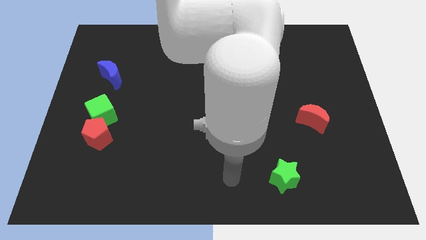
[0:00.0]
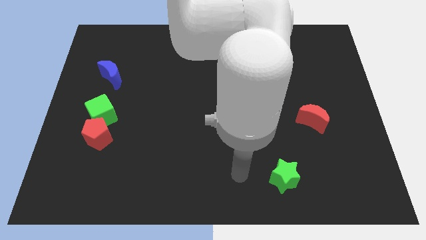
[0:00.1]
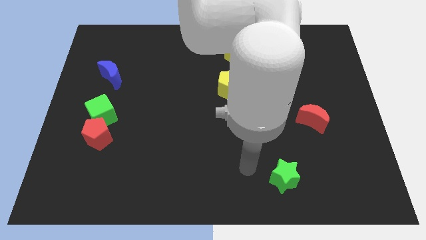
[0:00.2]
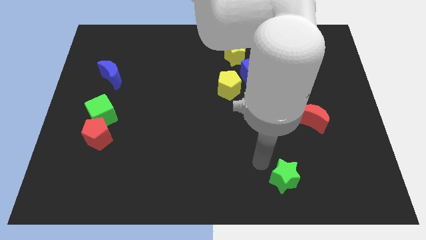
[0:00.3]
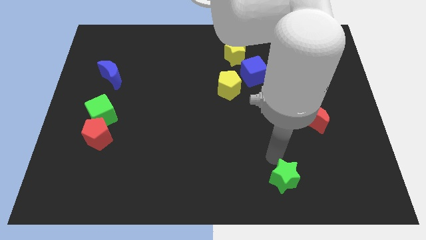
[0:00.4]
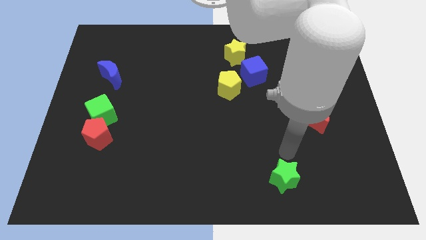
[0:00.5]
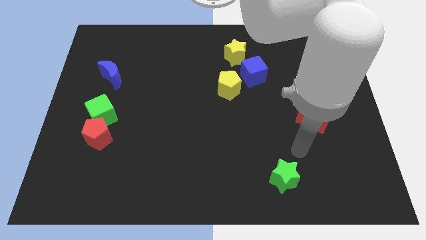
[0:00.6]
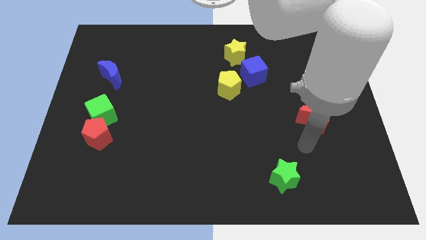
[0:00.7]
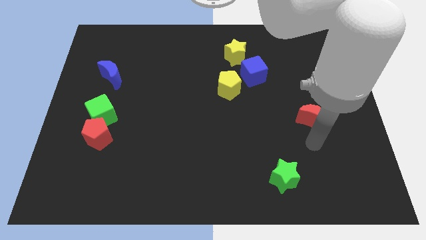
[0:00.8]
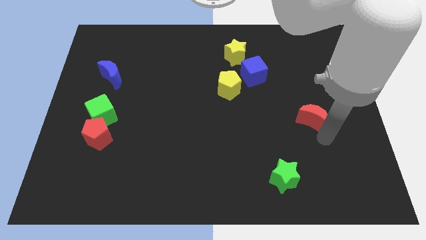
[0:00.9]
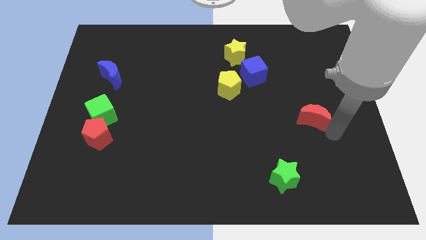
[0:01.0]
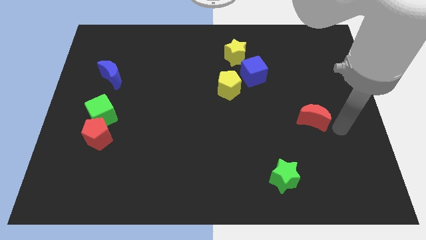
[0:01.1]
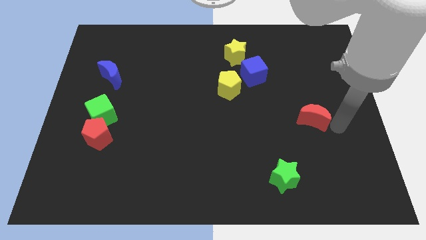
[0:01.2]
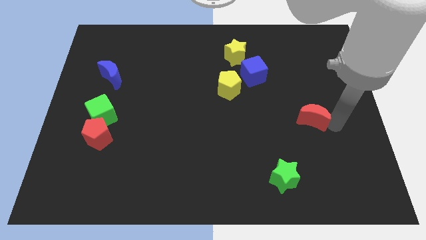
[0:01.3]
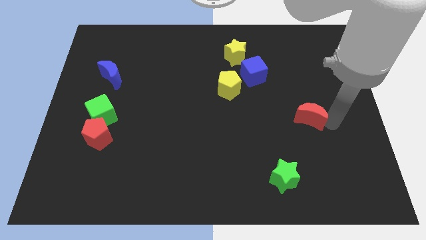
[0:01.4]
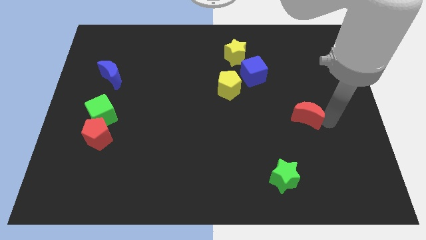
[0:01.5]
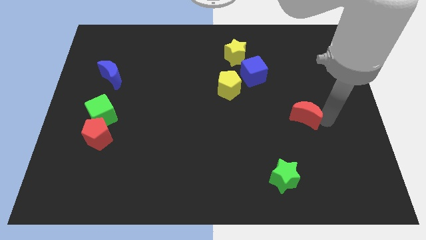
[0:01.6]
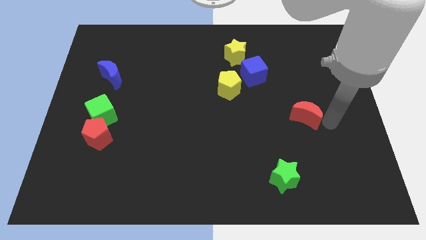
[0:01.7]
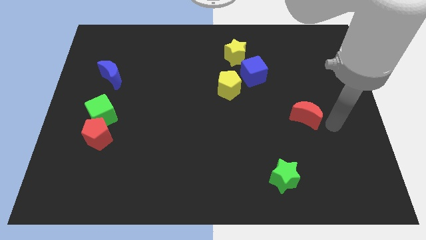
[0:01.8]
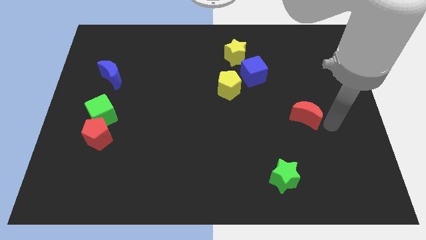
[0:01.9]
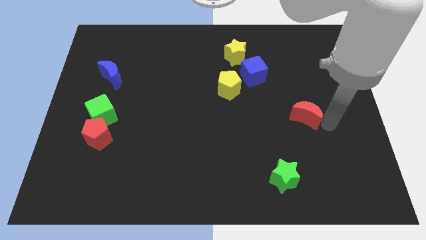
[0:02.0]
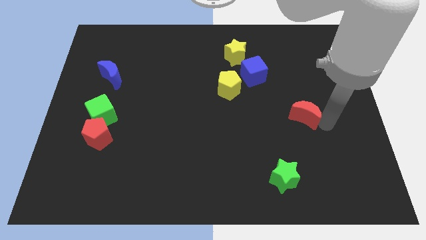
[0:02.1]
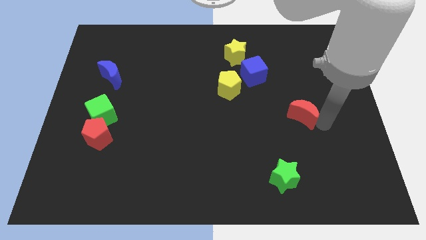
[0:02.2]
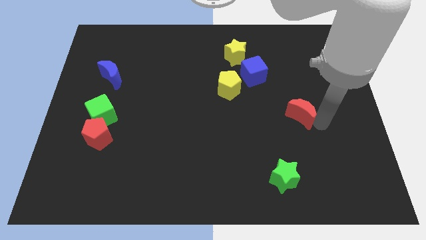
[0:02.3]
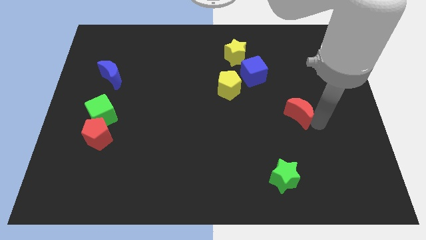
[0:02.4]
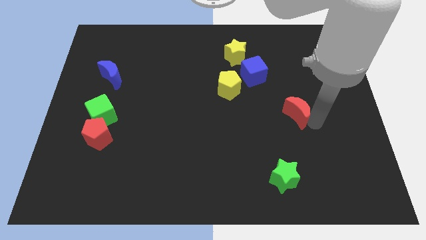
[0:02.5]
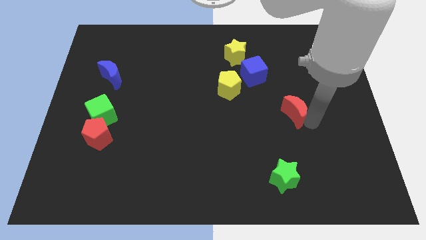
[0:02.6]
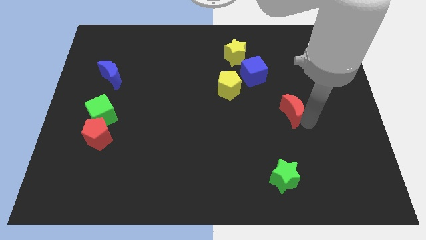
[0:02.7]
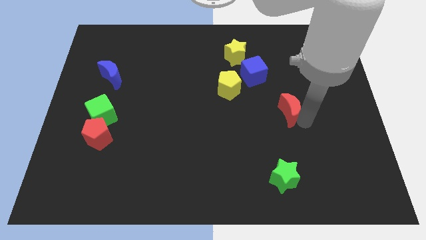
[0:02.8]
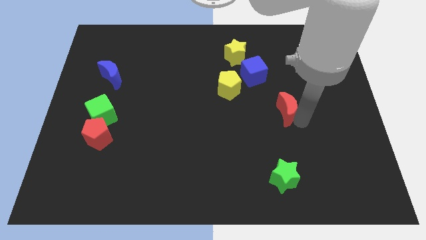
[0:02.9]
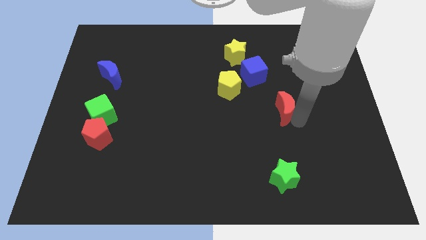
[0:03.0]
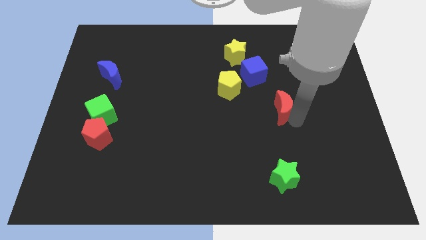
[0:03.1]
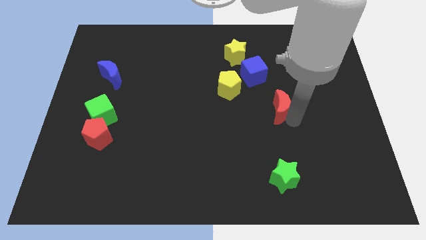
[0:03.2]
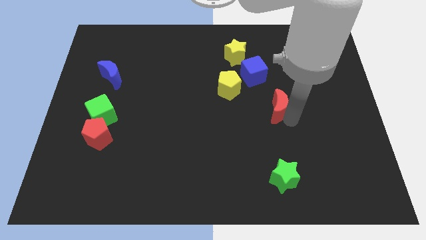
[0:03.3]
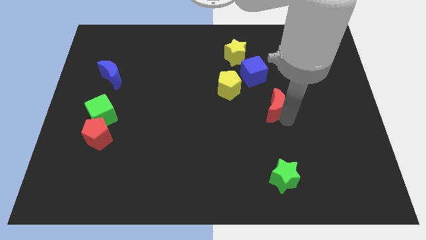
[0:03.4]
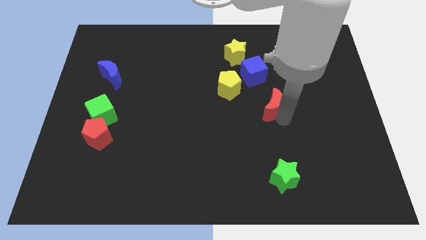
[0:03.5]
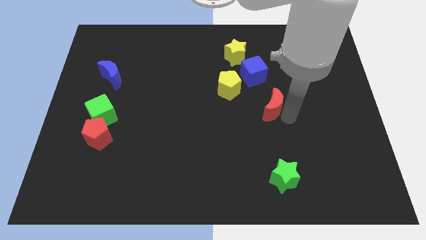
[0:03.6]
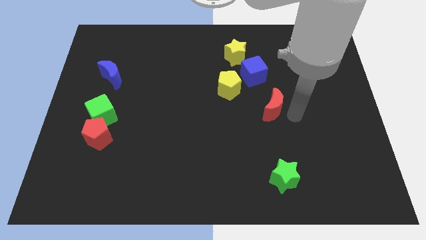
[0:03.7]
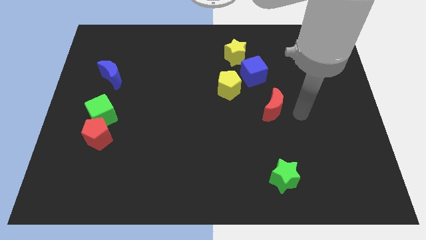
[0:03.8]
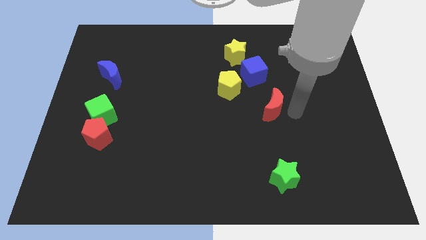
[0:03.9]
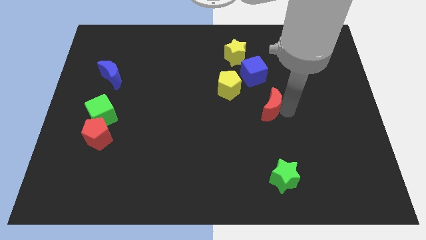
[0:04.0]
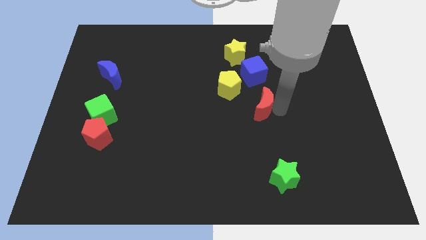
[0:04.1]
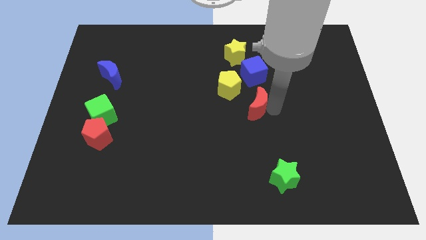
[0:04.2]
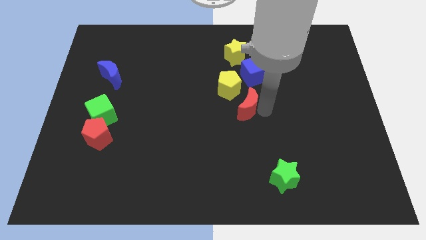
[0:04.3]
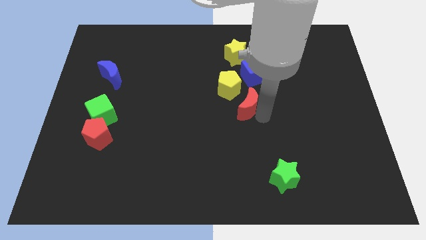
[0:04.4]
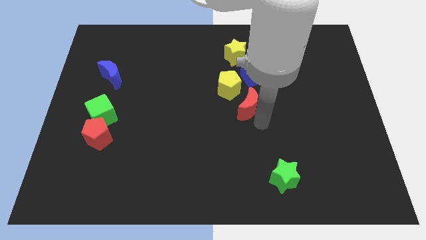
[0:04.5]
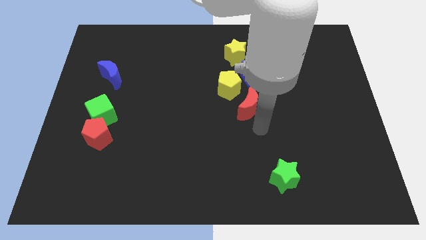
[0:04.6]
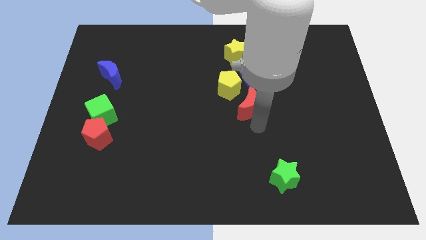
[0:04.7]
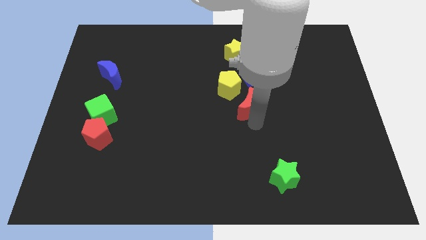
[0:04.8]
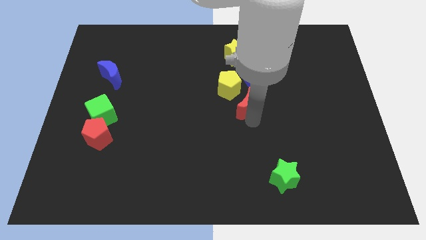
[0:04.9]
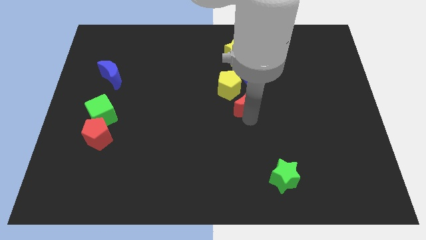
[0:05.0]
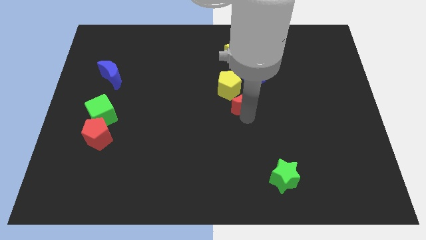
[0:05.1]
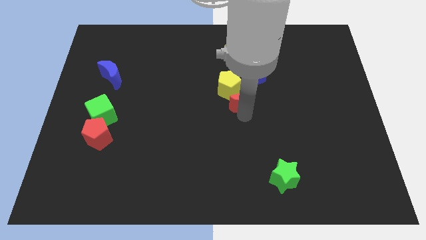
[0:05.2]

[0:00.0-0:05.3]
slide the red moon to the bottom of the yellow star

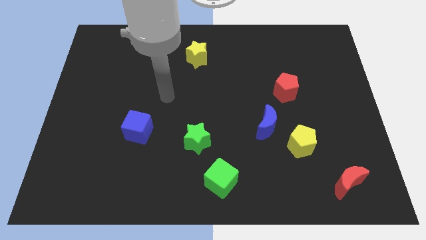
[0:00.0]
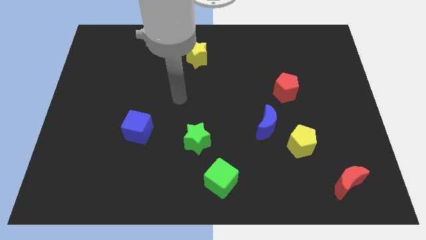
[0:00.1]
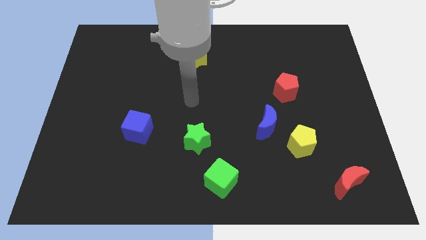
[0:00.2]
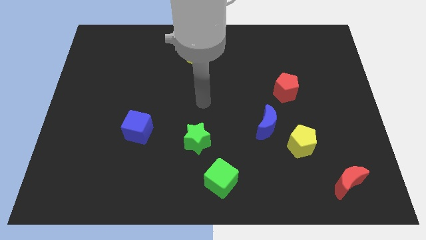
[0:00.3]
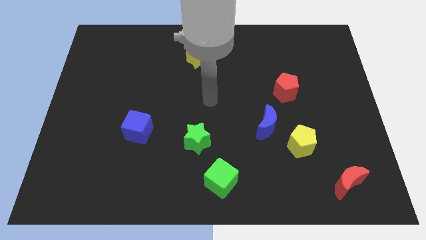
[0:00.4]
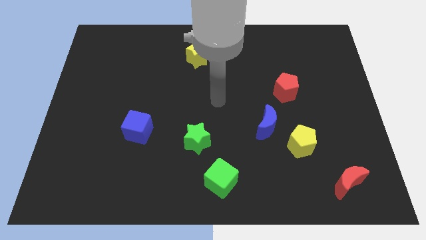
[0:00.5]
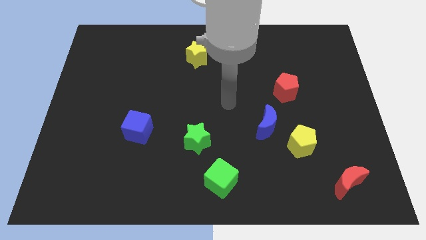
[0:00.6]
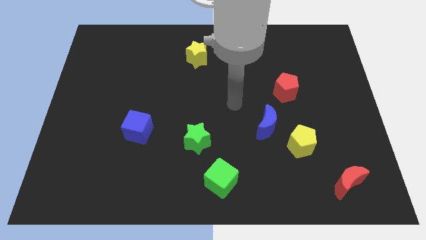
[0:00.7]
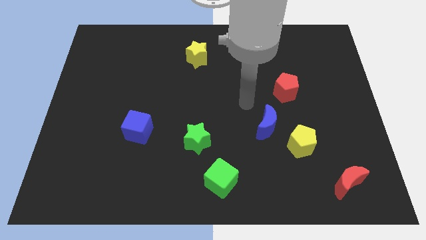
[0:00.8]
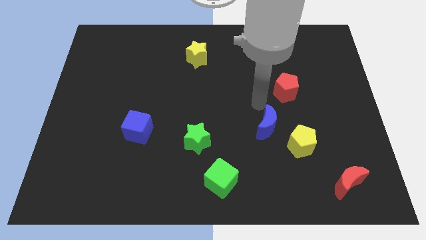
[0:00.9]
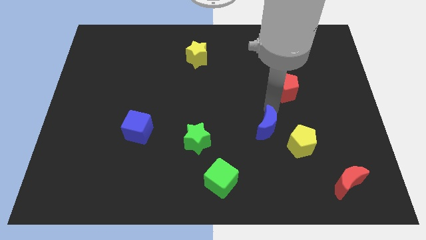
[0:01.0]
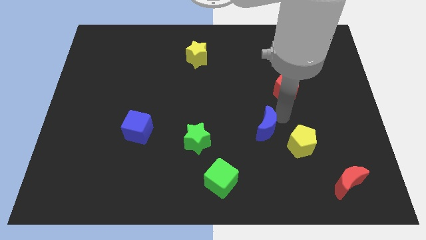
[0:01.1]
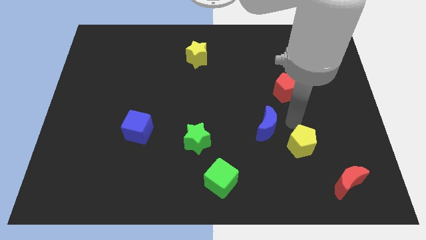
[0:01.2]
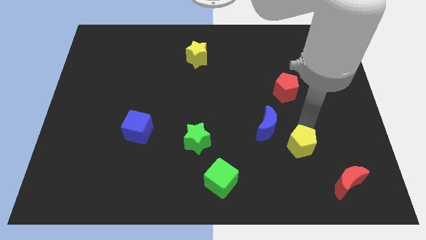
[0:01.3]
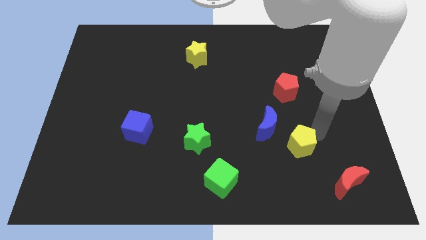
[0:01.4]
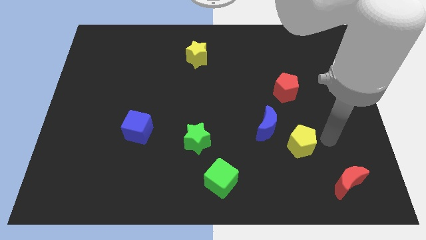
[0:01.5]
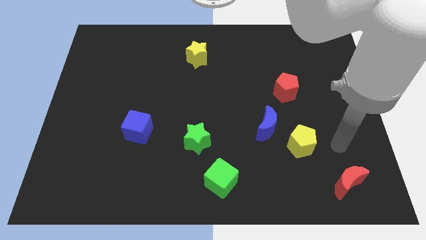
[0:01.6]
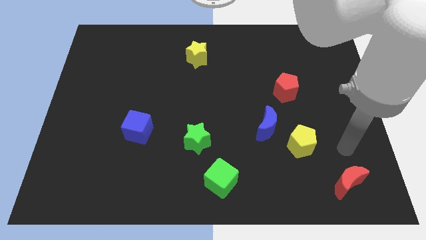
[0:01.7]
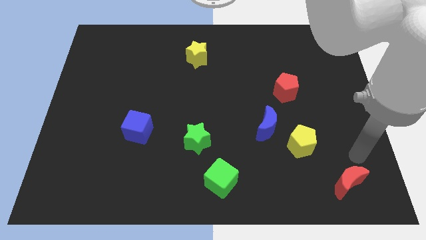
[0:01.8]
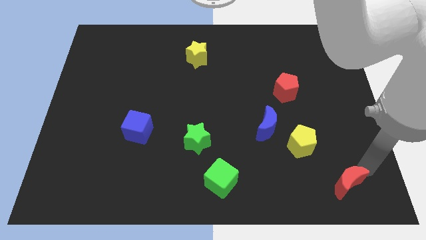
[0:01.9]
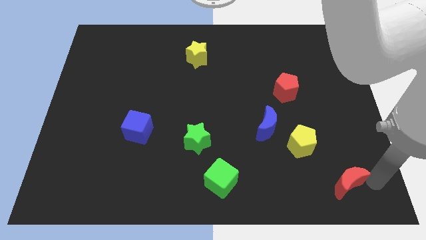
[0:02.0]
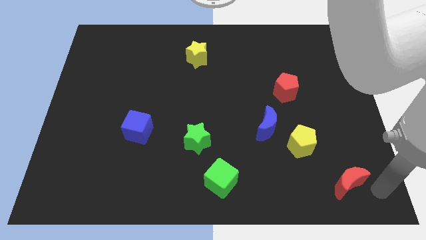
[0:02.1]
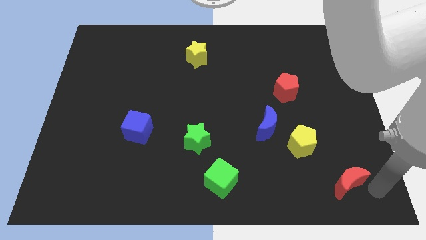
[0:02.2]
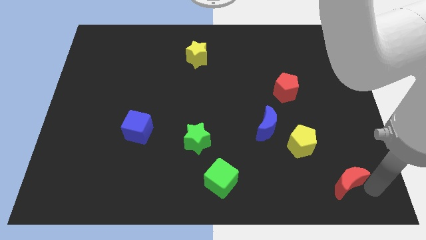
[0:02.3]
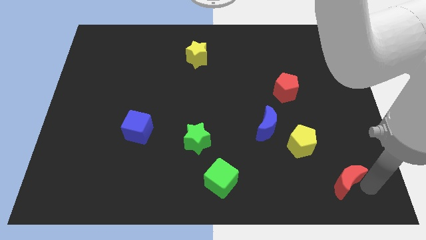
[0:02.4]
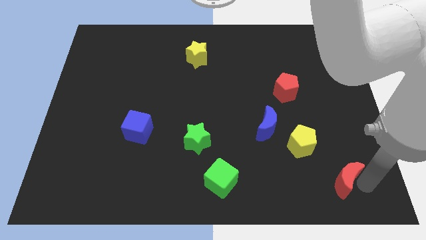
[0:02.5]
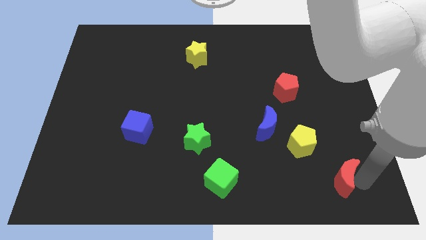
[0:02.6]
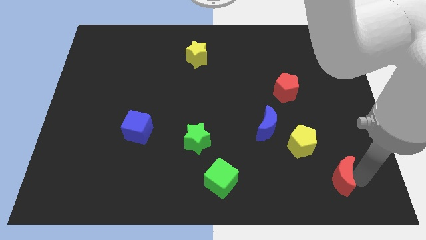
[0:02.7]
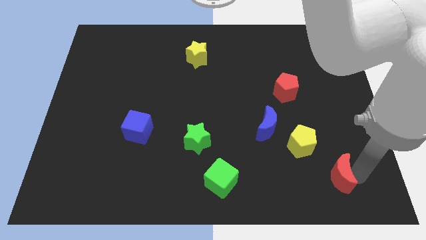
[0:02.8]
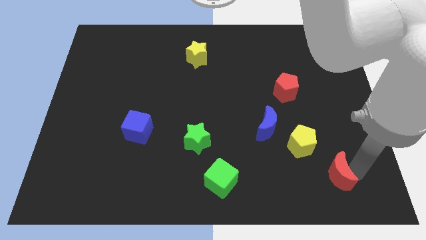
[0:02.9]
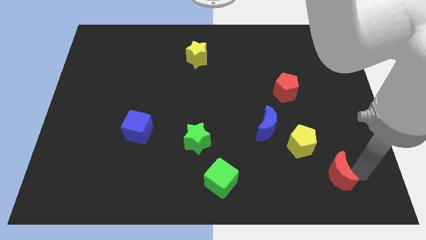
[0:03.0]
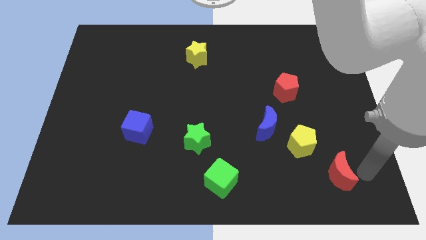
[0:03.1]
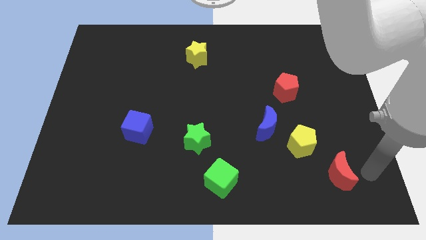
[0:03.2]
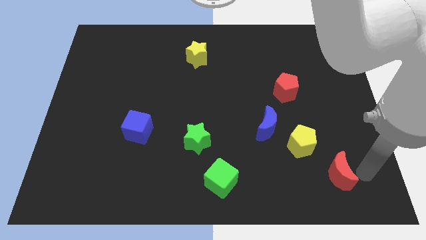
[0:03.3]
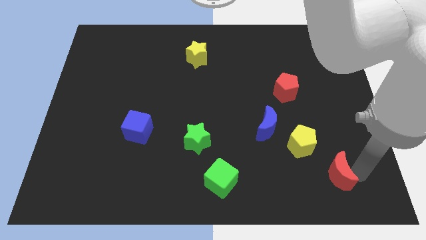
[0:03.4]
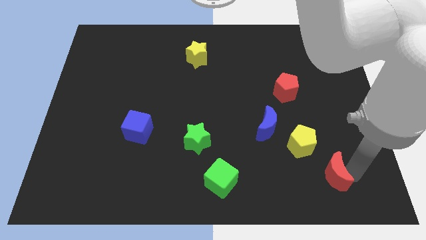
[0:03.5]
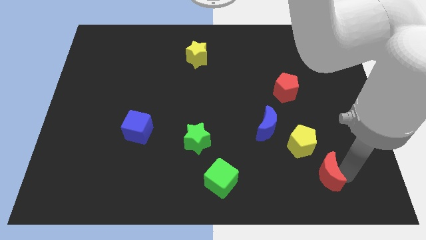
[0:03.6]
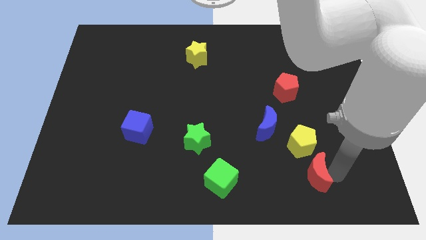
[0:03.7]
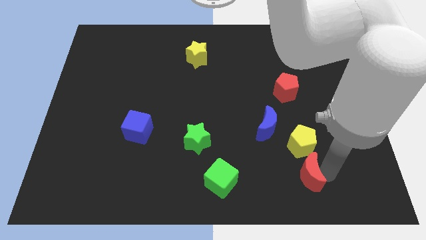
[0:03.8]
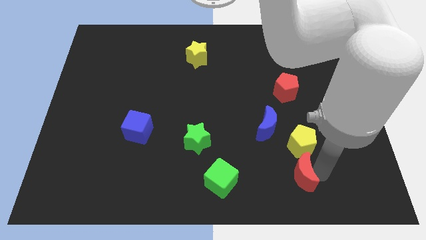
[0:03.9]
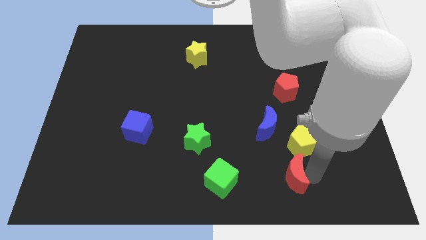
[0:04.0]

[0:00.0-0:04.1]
slide the red moon to the bottom side of the blue moon
